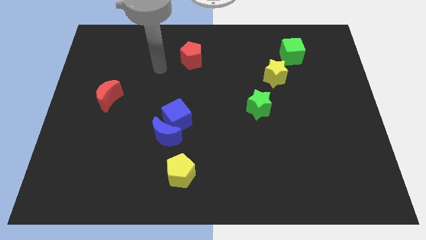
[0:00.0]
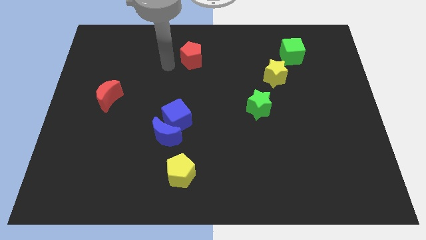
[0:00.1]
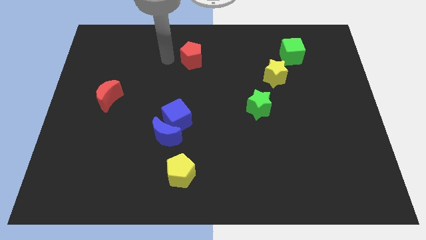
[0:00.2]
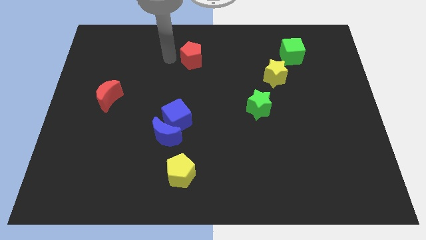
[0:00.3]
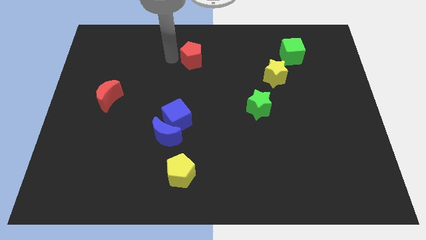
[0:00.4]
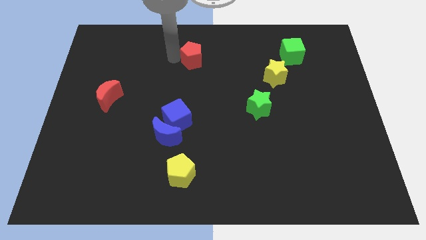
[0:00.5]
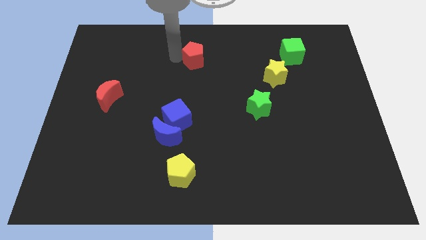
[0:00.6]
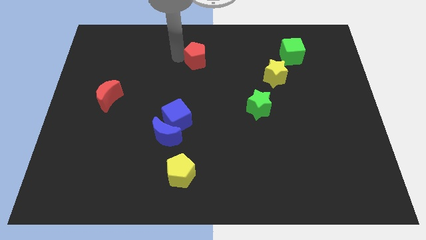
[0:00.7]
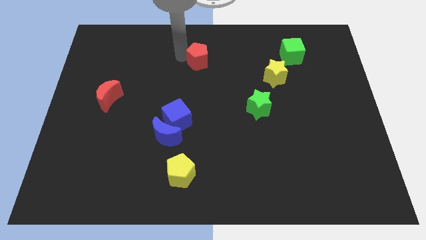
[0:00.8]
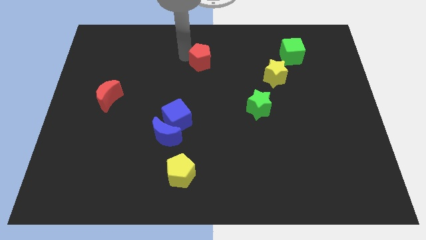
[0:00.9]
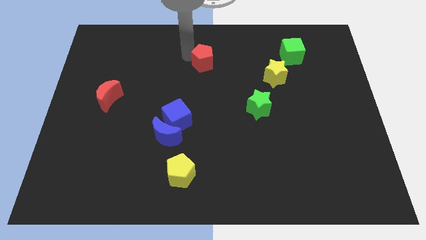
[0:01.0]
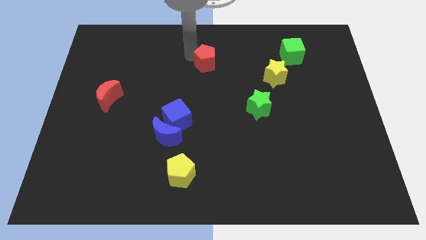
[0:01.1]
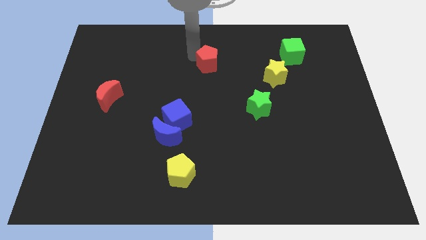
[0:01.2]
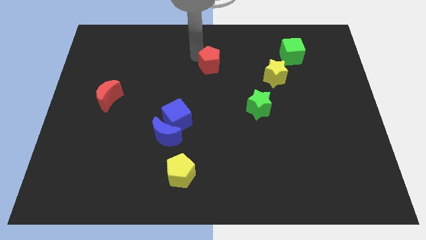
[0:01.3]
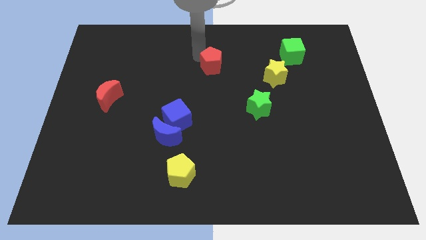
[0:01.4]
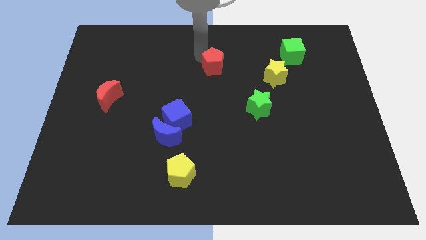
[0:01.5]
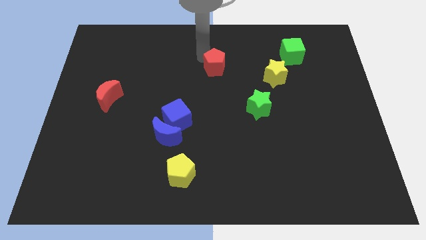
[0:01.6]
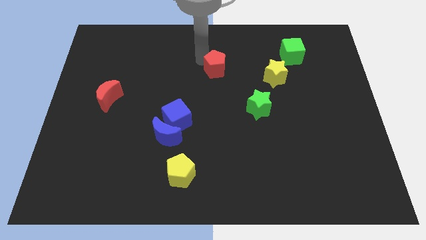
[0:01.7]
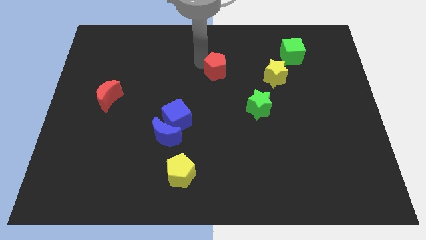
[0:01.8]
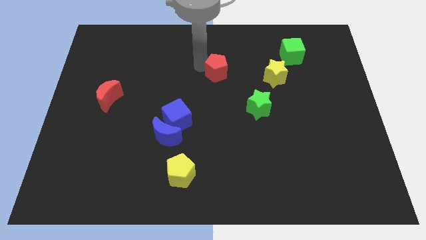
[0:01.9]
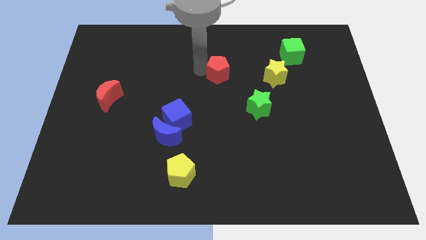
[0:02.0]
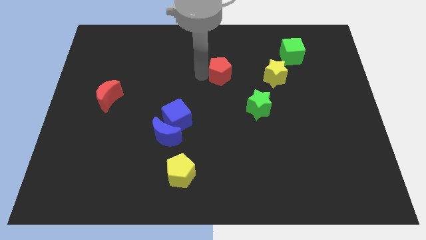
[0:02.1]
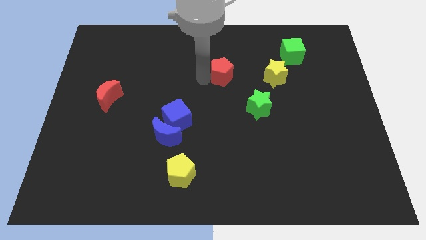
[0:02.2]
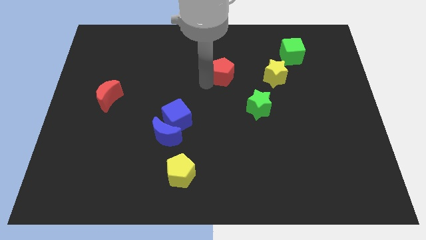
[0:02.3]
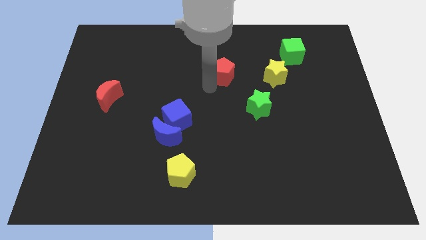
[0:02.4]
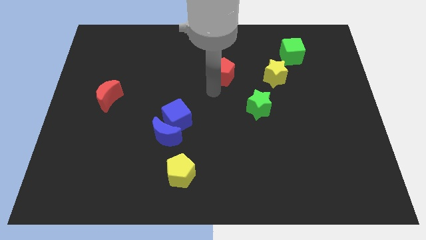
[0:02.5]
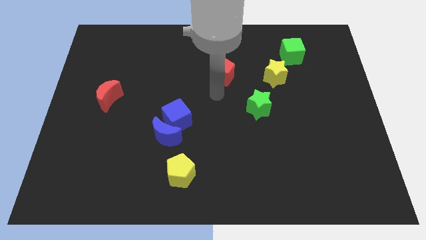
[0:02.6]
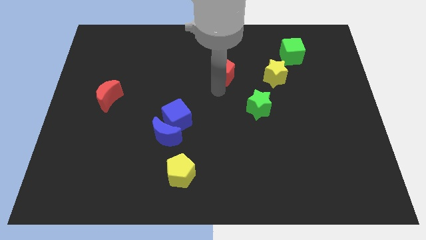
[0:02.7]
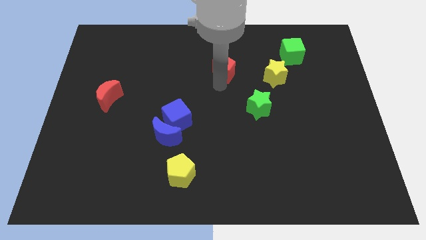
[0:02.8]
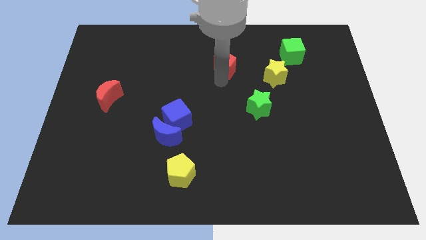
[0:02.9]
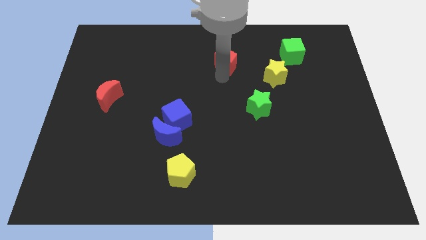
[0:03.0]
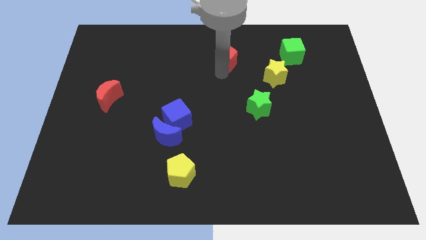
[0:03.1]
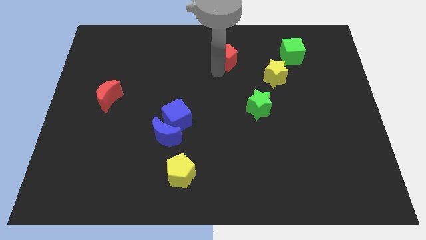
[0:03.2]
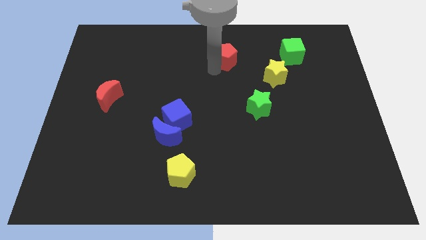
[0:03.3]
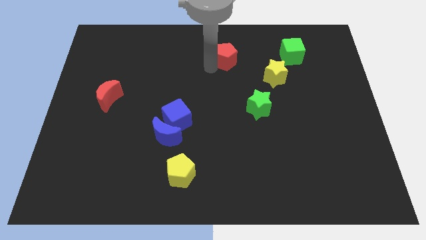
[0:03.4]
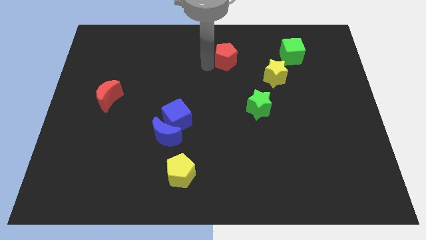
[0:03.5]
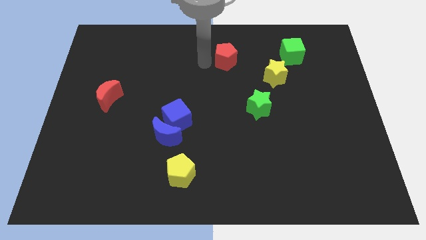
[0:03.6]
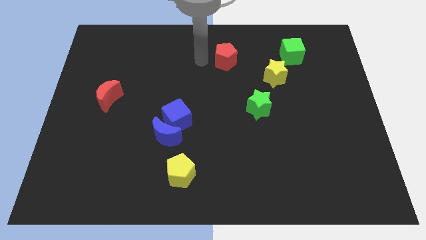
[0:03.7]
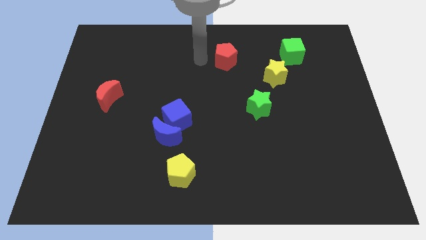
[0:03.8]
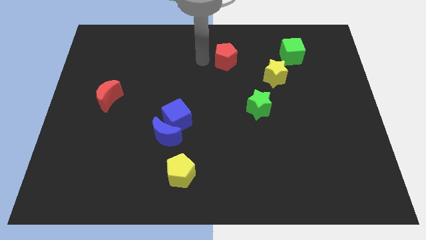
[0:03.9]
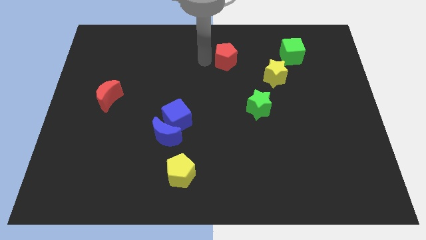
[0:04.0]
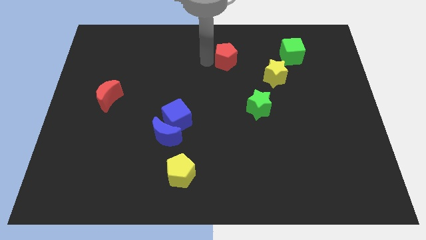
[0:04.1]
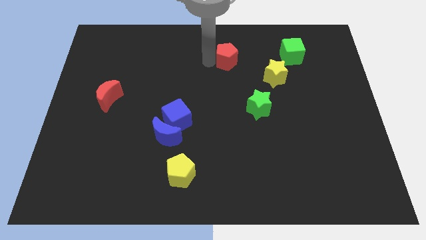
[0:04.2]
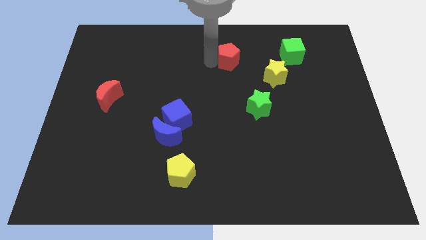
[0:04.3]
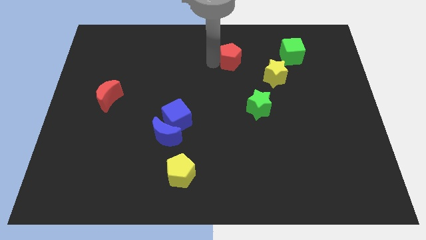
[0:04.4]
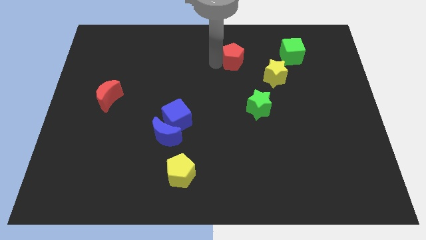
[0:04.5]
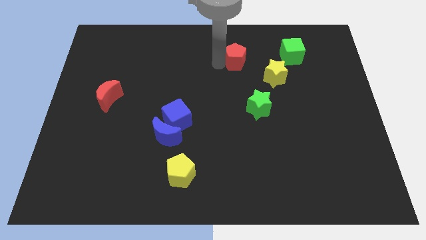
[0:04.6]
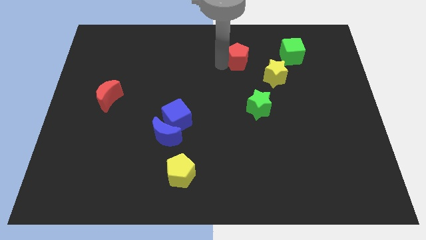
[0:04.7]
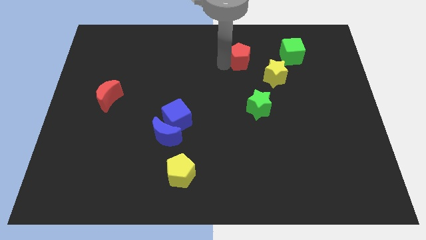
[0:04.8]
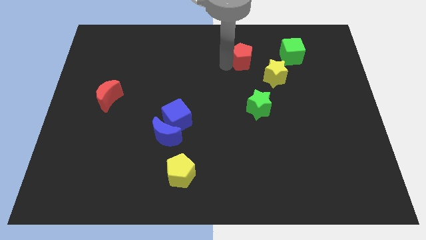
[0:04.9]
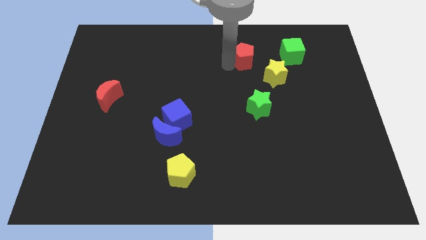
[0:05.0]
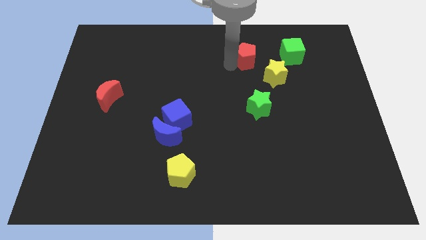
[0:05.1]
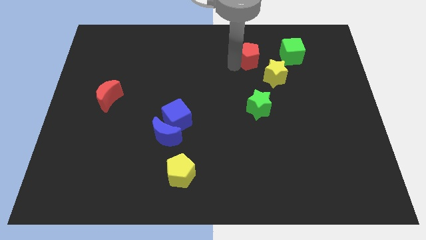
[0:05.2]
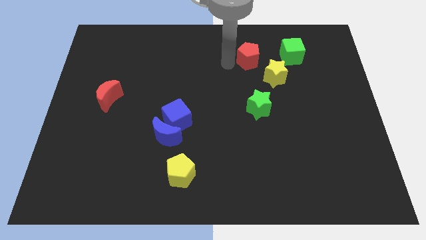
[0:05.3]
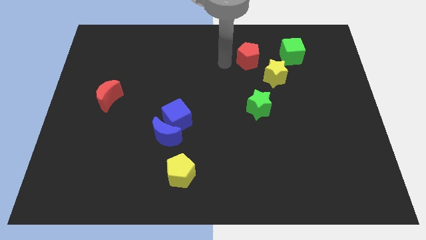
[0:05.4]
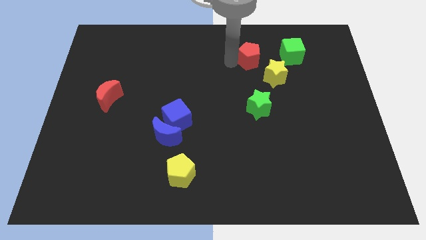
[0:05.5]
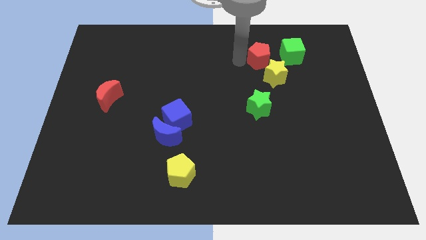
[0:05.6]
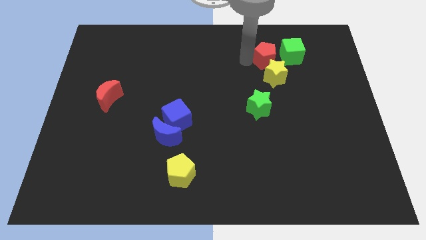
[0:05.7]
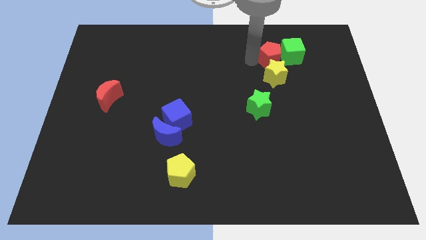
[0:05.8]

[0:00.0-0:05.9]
push the red pentagon towards the green cube

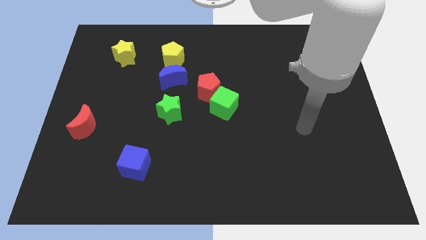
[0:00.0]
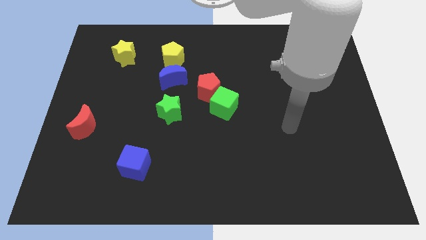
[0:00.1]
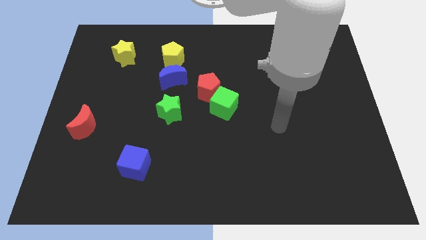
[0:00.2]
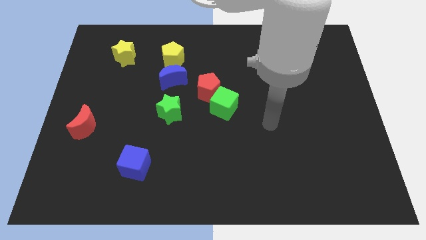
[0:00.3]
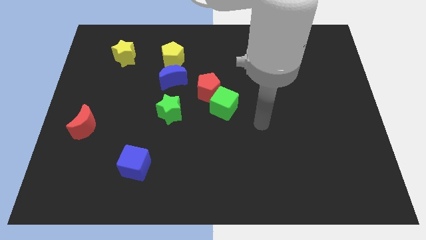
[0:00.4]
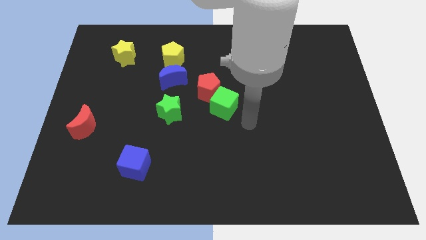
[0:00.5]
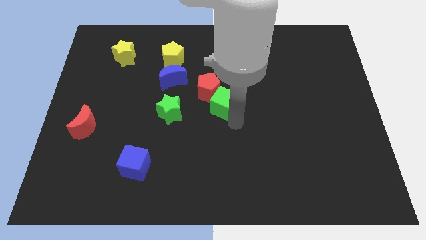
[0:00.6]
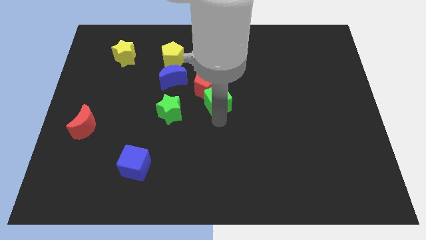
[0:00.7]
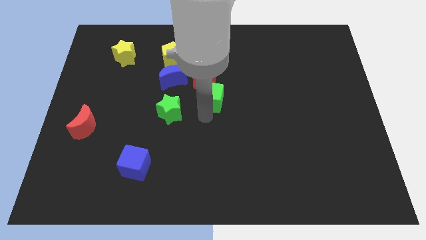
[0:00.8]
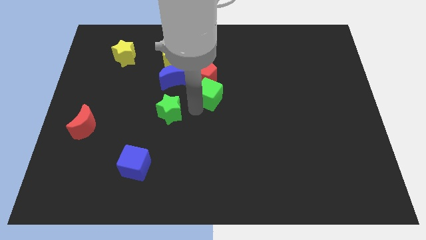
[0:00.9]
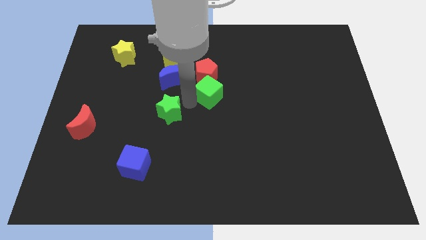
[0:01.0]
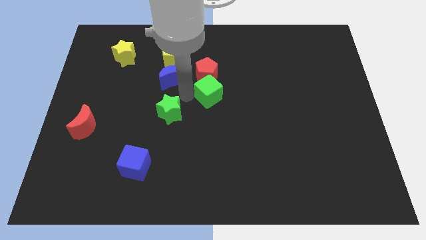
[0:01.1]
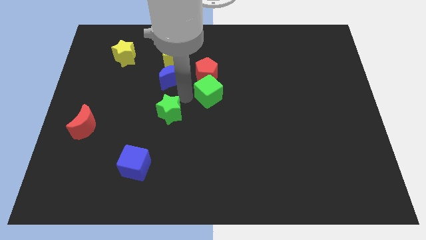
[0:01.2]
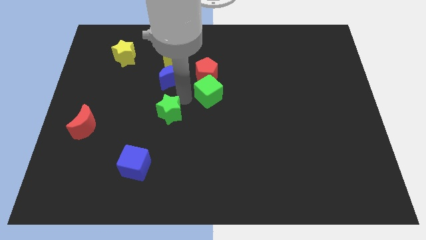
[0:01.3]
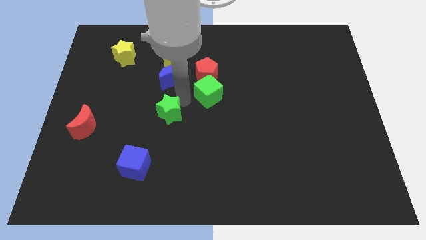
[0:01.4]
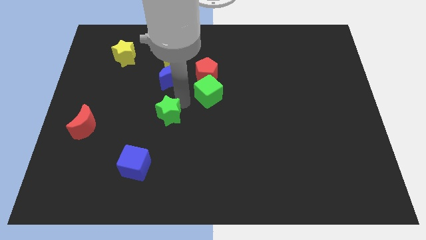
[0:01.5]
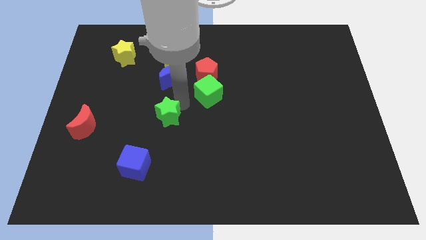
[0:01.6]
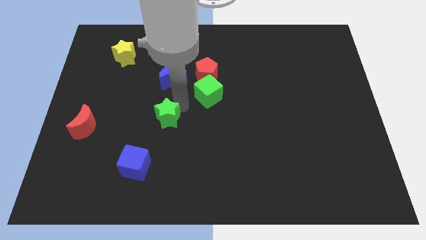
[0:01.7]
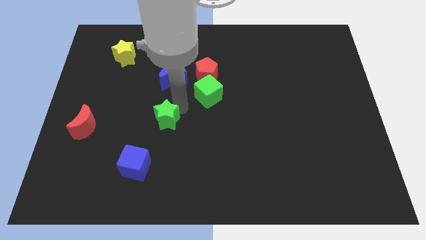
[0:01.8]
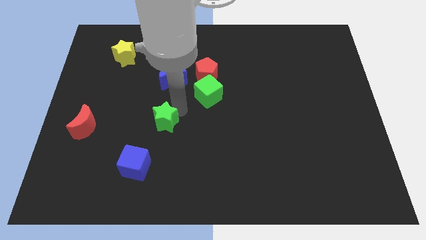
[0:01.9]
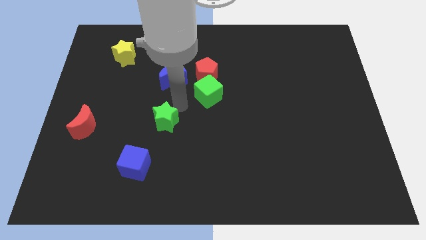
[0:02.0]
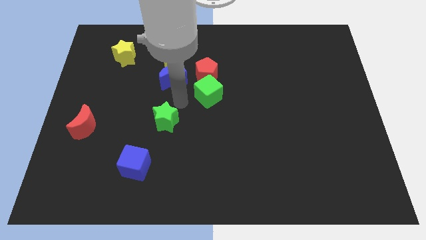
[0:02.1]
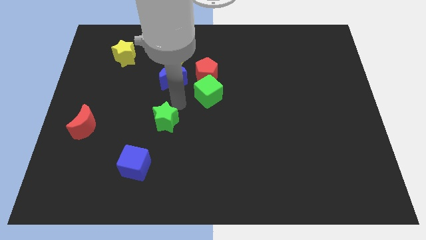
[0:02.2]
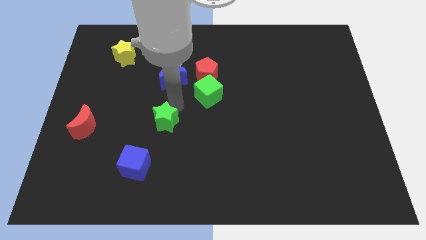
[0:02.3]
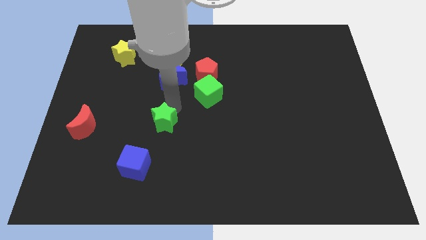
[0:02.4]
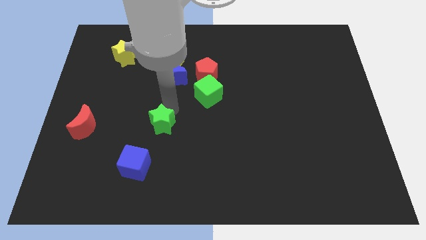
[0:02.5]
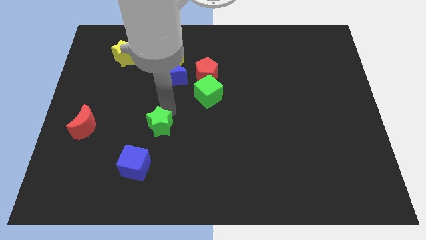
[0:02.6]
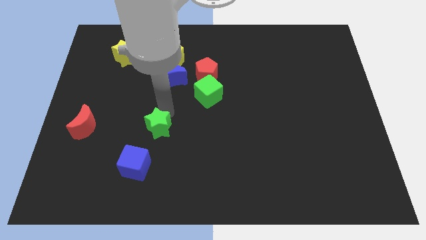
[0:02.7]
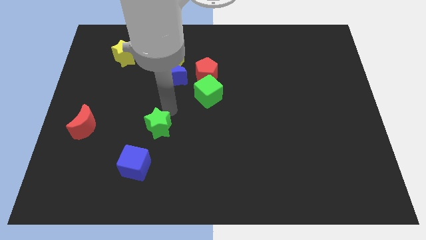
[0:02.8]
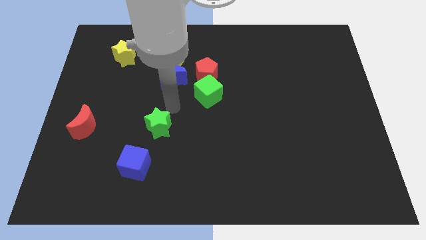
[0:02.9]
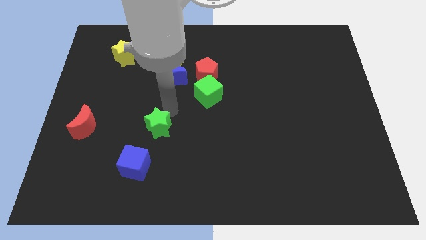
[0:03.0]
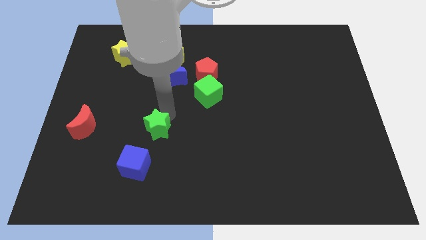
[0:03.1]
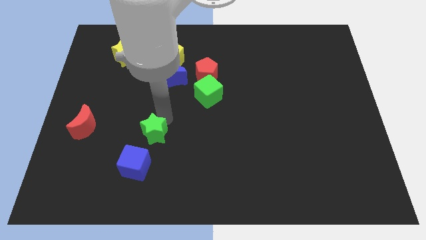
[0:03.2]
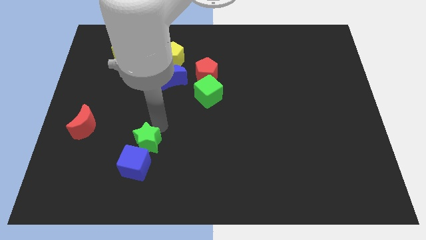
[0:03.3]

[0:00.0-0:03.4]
push the green star close to the blue cube
